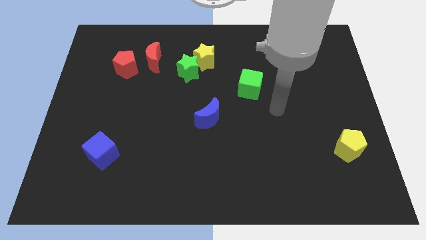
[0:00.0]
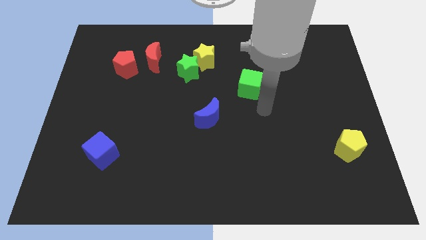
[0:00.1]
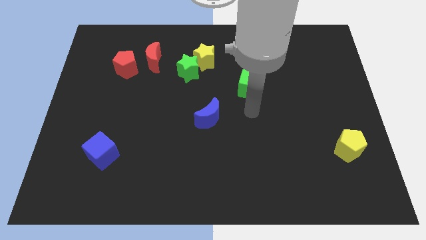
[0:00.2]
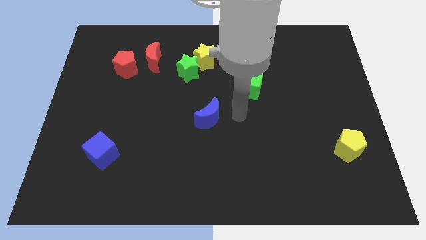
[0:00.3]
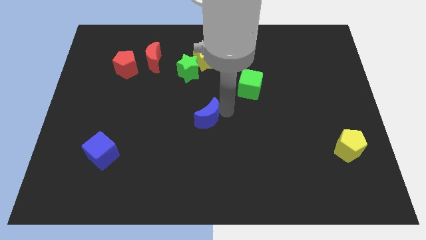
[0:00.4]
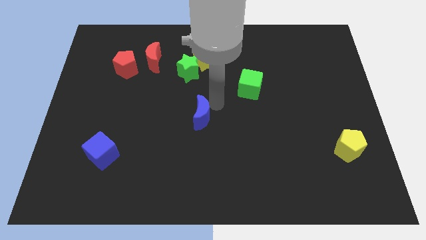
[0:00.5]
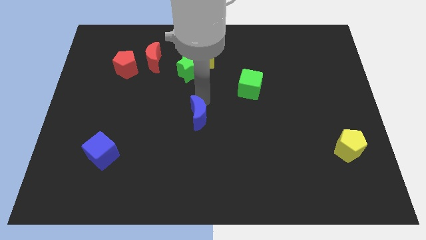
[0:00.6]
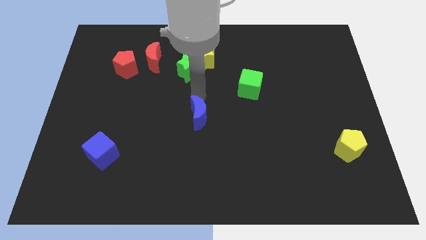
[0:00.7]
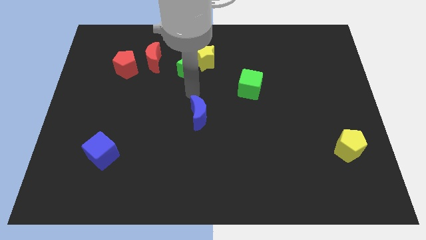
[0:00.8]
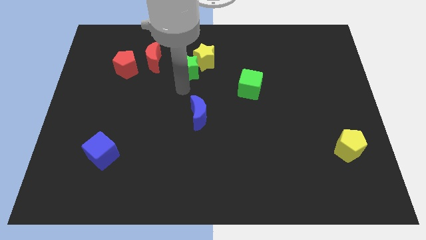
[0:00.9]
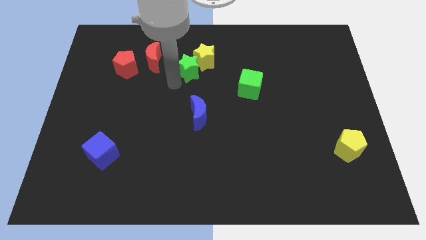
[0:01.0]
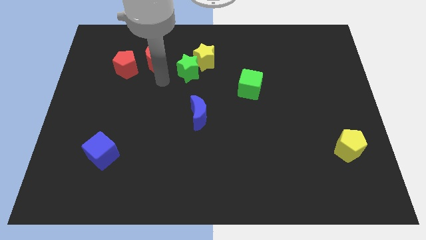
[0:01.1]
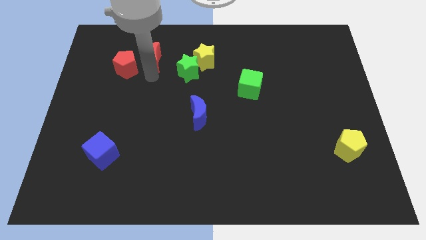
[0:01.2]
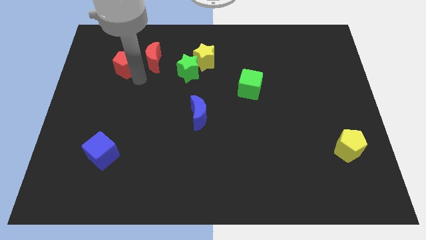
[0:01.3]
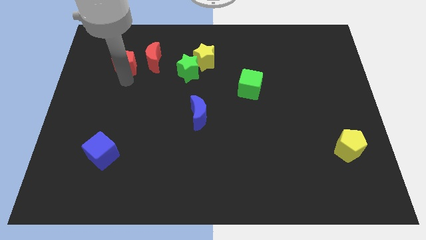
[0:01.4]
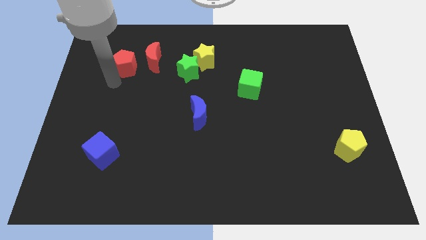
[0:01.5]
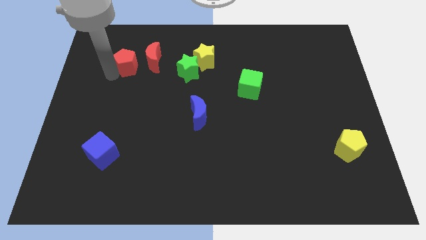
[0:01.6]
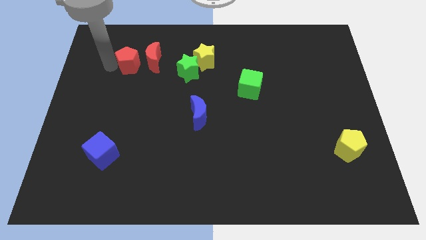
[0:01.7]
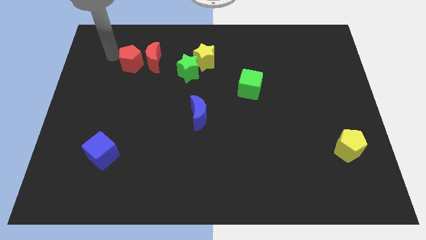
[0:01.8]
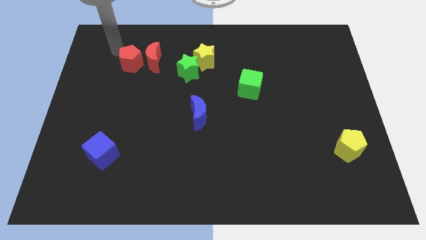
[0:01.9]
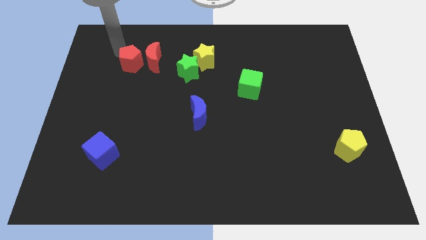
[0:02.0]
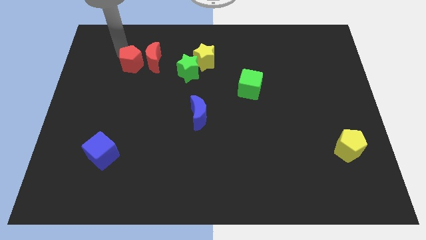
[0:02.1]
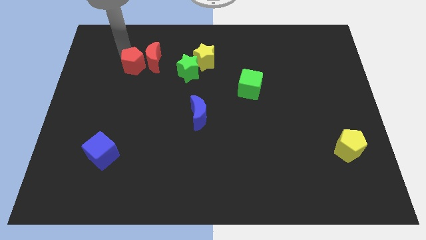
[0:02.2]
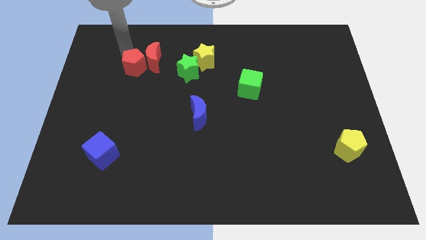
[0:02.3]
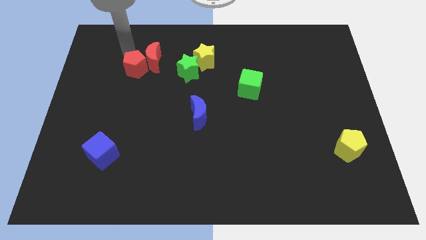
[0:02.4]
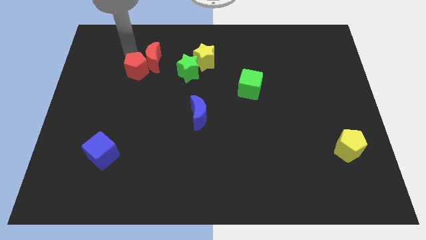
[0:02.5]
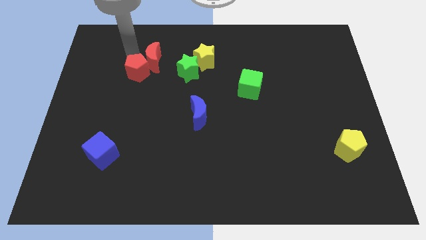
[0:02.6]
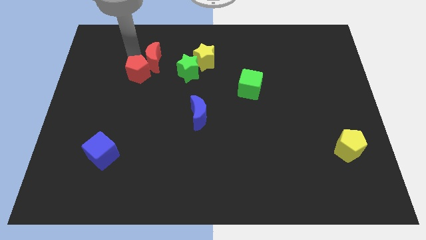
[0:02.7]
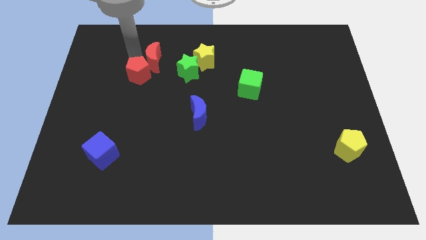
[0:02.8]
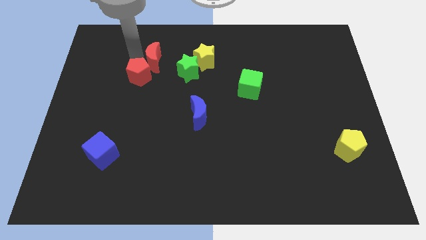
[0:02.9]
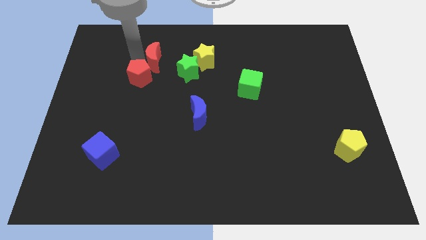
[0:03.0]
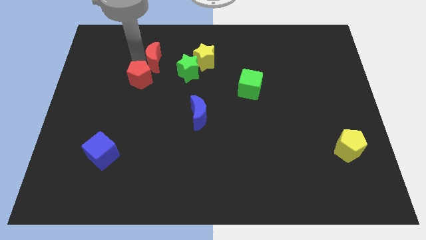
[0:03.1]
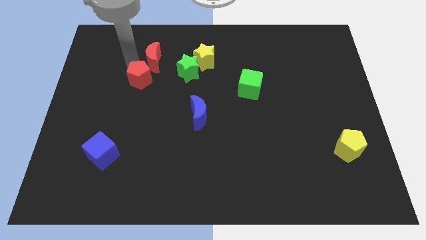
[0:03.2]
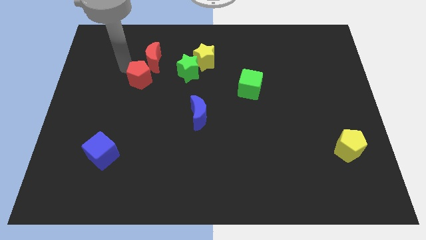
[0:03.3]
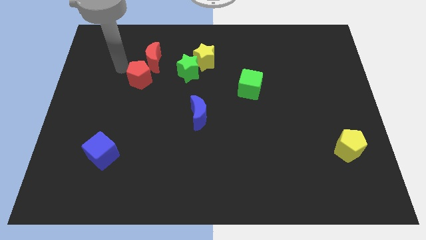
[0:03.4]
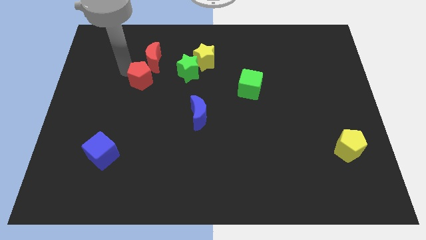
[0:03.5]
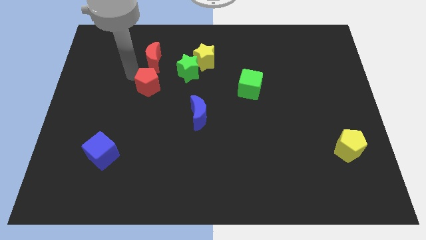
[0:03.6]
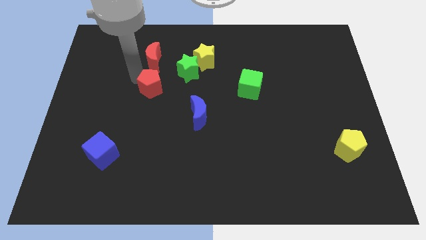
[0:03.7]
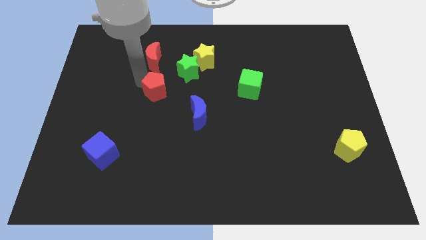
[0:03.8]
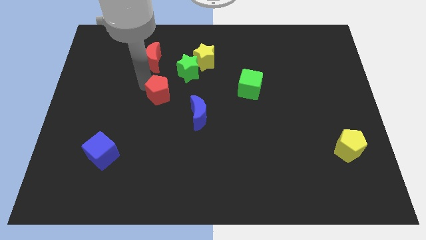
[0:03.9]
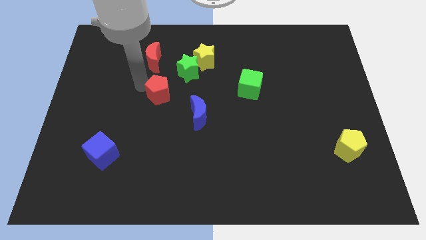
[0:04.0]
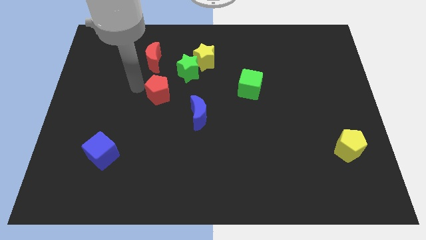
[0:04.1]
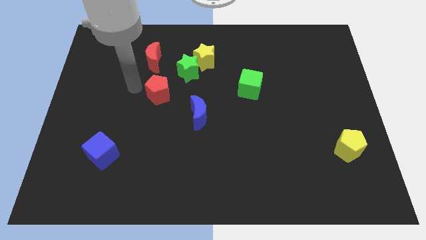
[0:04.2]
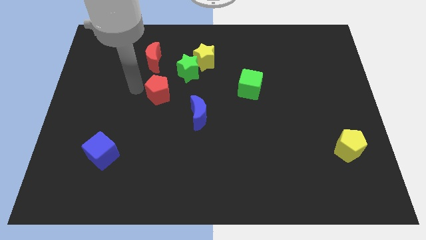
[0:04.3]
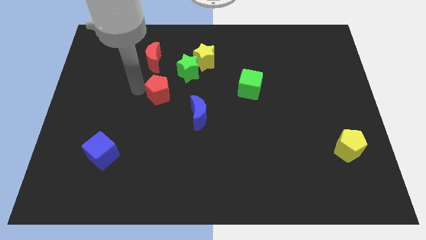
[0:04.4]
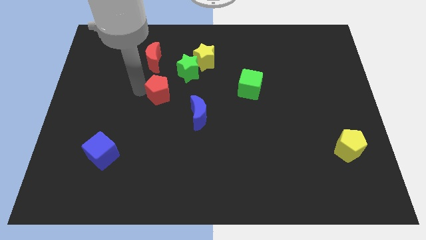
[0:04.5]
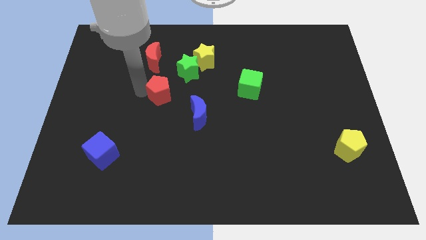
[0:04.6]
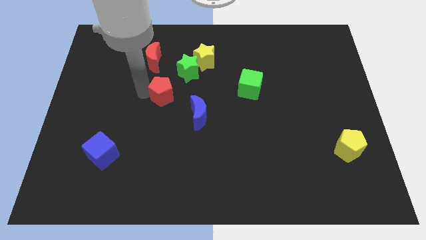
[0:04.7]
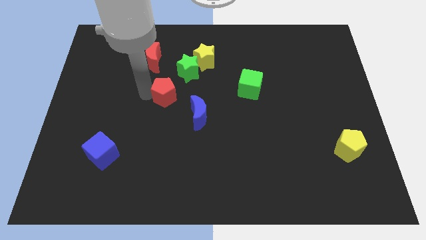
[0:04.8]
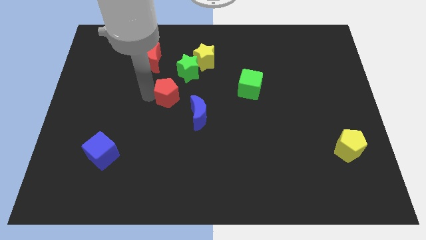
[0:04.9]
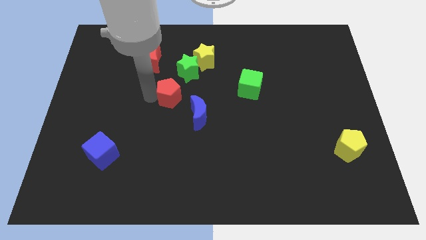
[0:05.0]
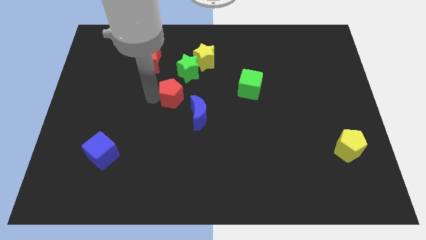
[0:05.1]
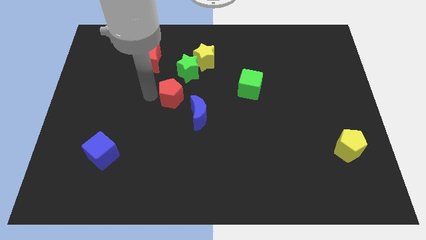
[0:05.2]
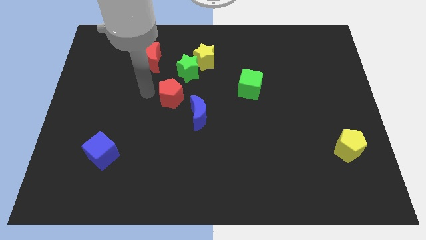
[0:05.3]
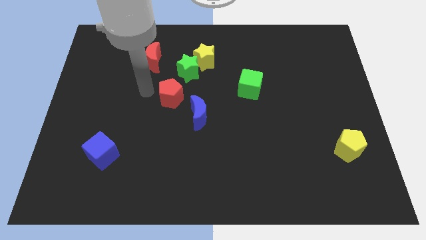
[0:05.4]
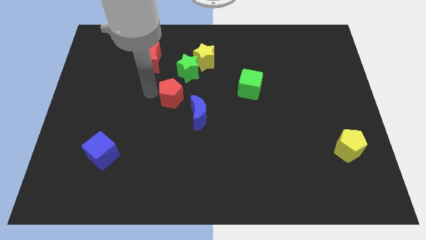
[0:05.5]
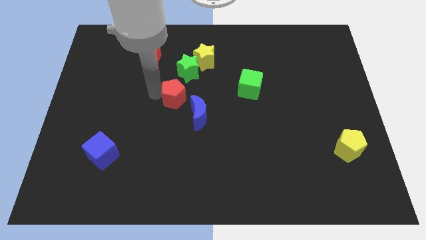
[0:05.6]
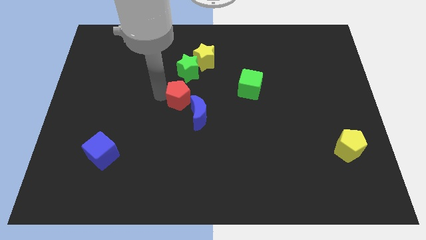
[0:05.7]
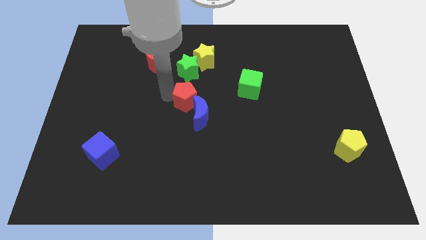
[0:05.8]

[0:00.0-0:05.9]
put the red pentagon next to the blue moon

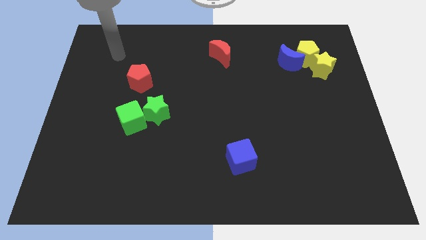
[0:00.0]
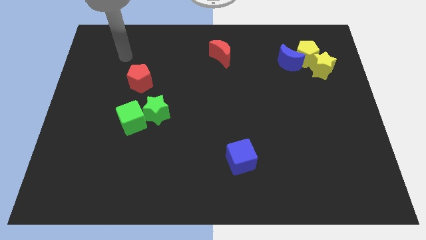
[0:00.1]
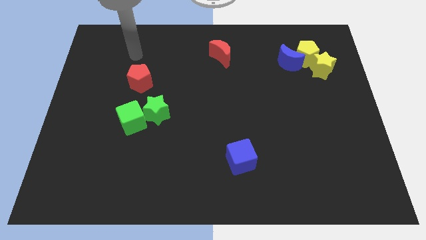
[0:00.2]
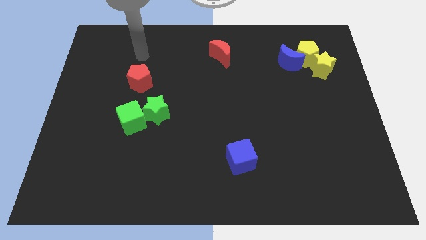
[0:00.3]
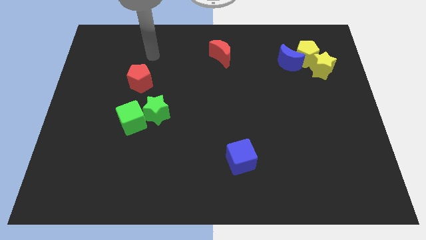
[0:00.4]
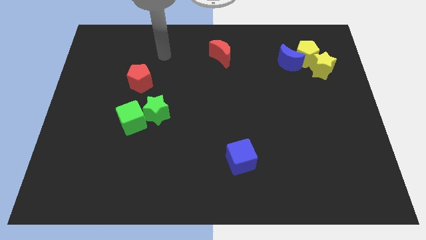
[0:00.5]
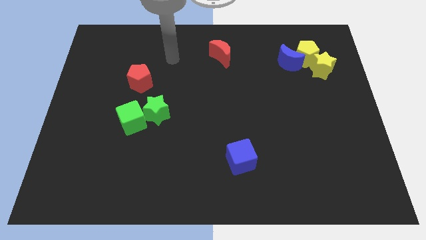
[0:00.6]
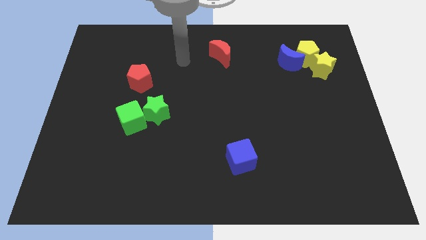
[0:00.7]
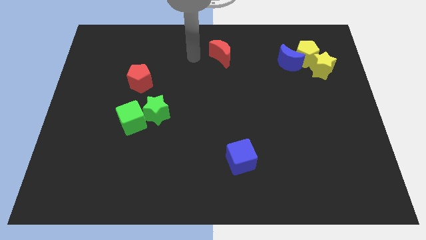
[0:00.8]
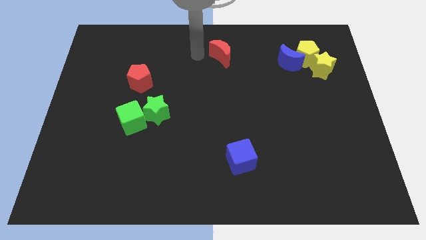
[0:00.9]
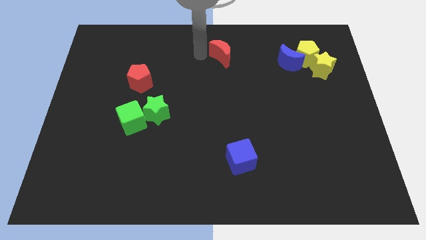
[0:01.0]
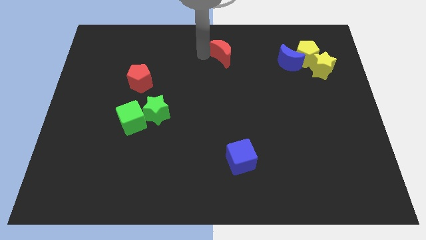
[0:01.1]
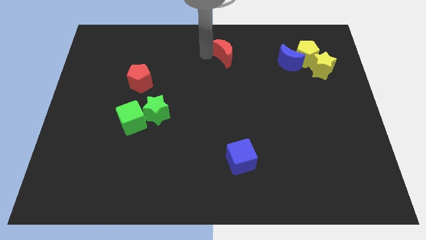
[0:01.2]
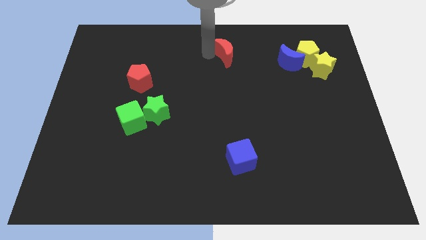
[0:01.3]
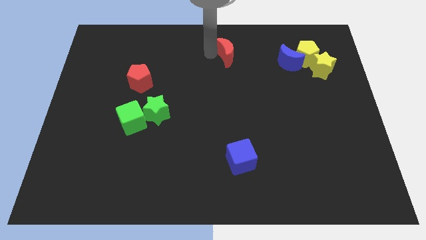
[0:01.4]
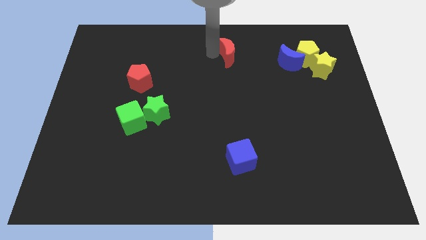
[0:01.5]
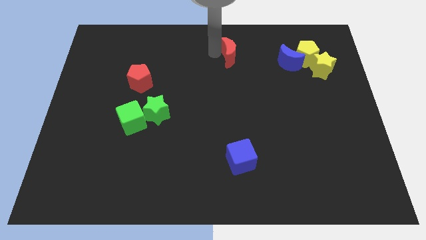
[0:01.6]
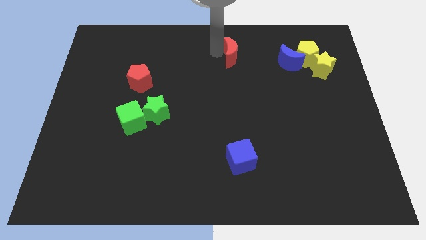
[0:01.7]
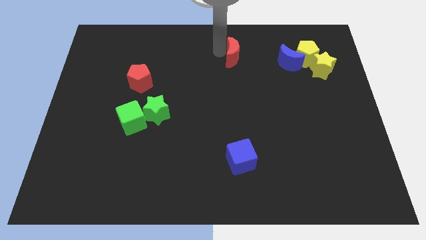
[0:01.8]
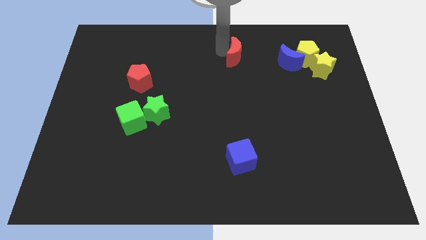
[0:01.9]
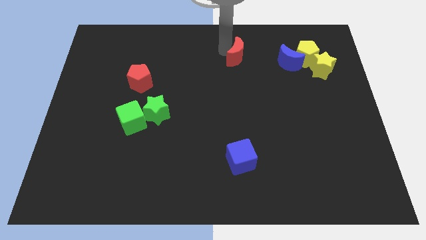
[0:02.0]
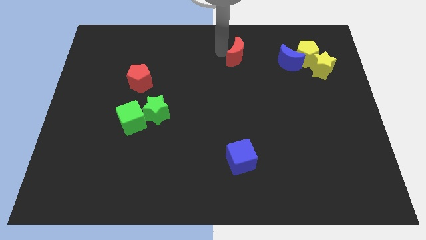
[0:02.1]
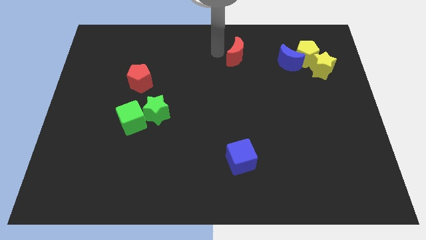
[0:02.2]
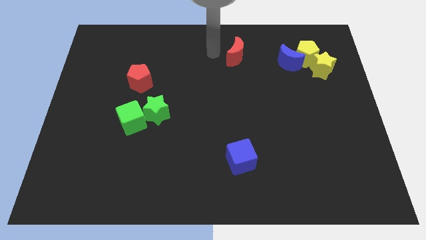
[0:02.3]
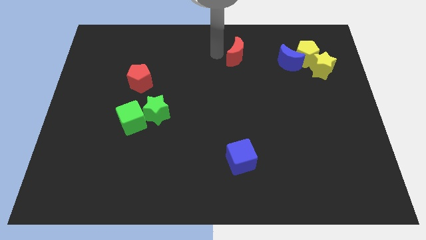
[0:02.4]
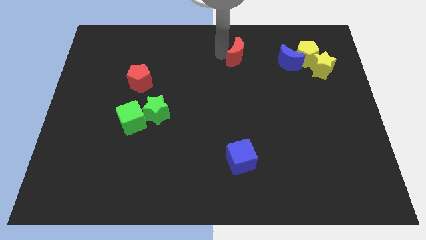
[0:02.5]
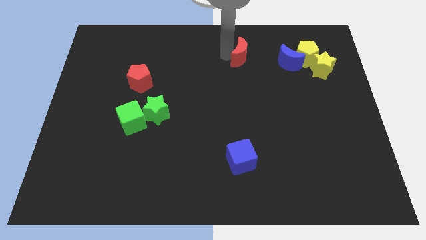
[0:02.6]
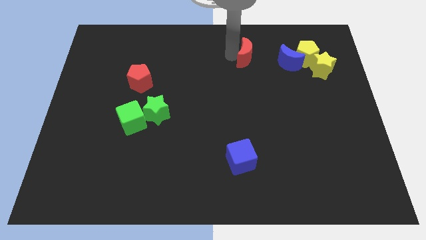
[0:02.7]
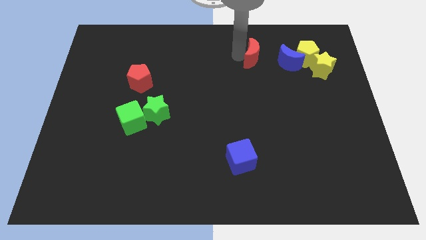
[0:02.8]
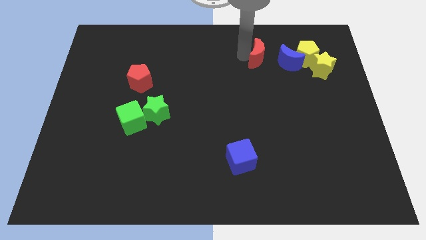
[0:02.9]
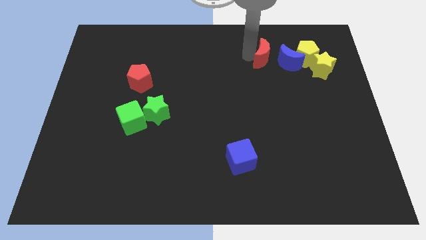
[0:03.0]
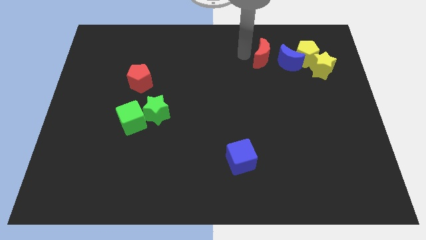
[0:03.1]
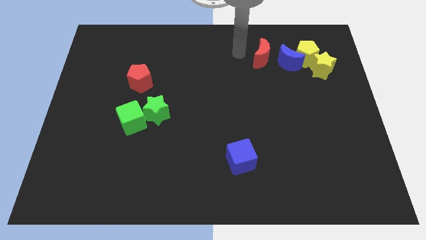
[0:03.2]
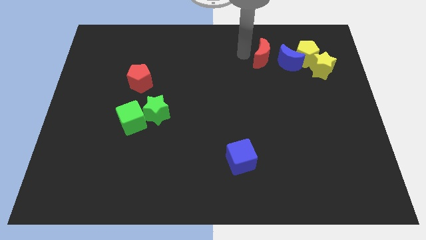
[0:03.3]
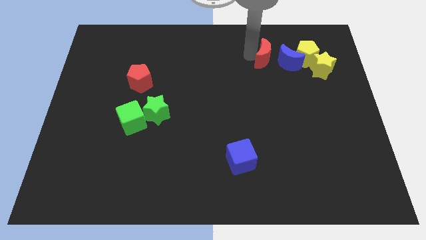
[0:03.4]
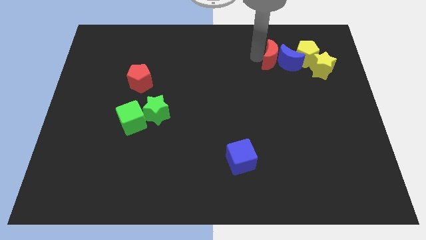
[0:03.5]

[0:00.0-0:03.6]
push the red moon to the blue moon
